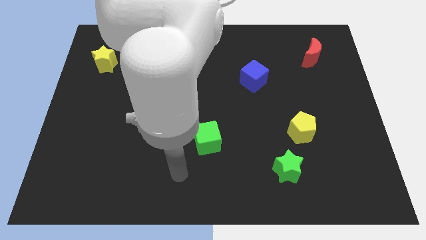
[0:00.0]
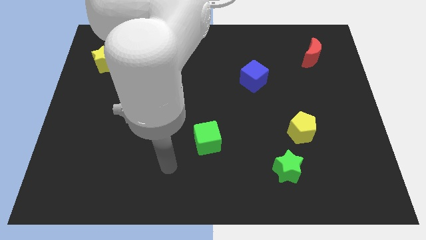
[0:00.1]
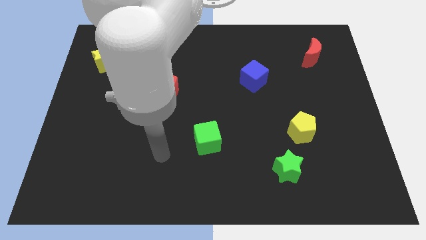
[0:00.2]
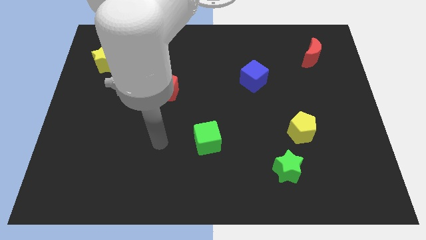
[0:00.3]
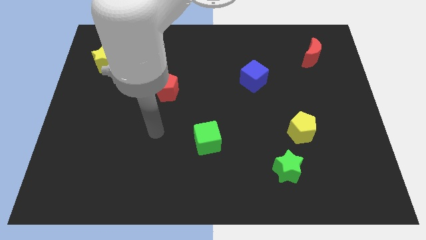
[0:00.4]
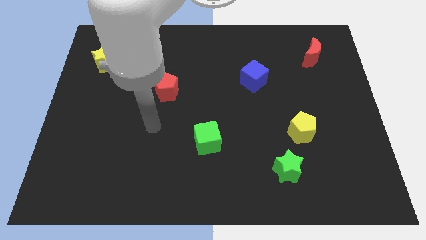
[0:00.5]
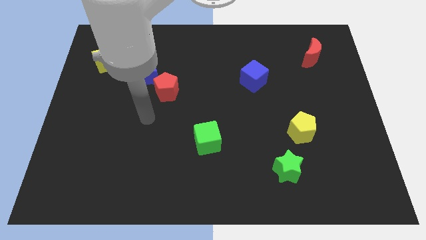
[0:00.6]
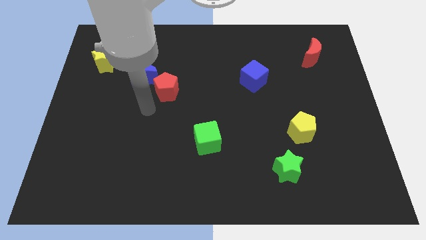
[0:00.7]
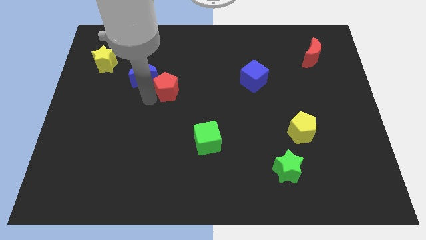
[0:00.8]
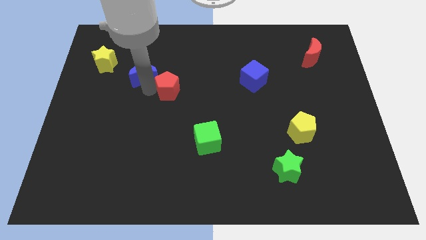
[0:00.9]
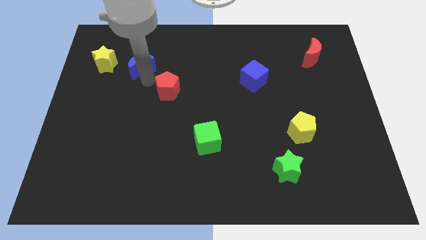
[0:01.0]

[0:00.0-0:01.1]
move the red pentagon away from the blue moon

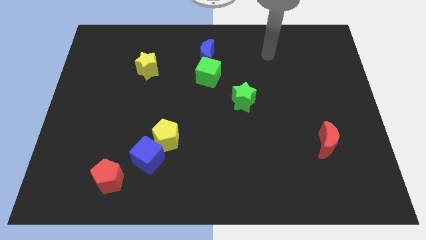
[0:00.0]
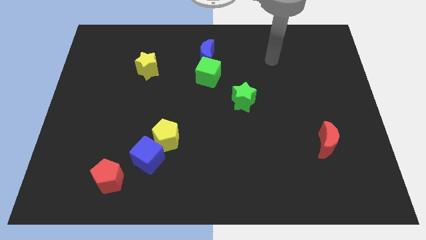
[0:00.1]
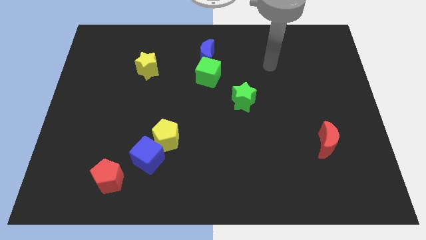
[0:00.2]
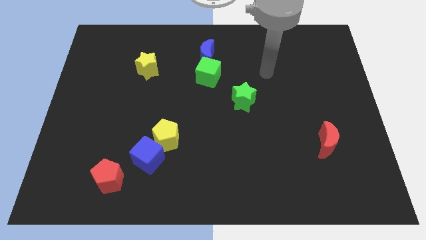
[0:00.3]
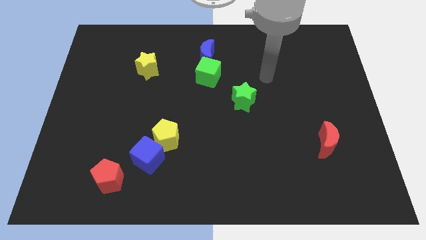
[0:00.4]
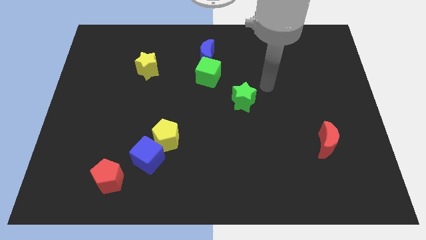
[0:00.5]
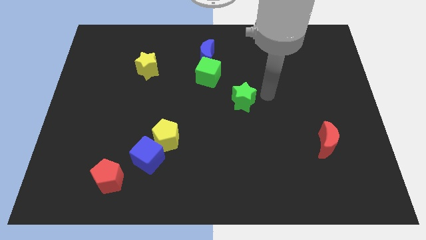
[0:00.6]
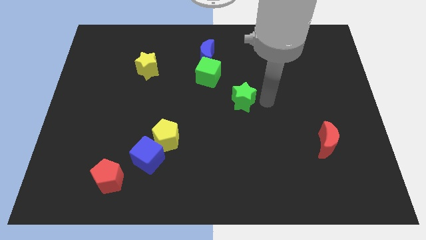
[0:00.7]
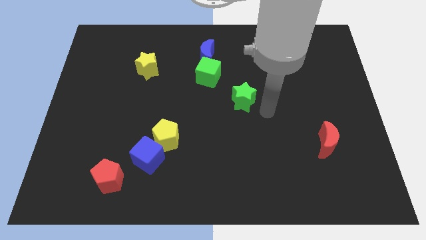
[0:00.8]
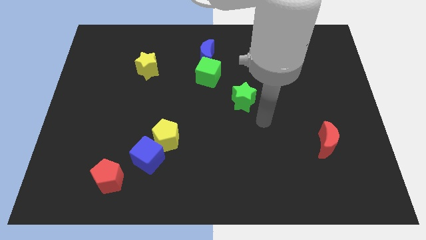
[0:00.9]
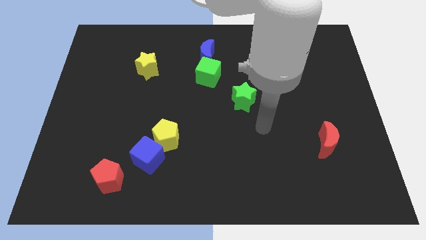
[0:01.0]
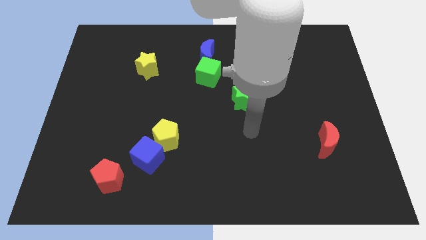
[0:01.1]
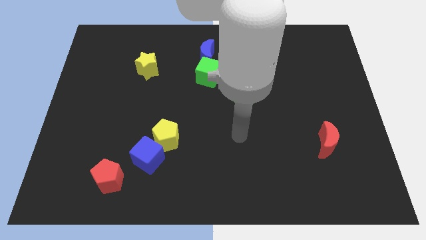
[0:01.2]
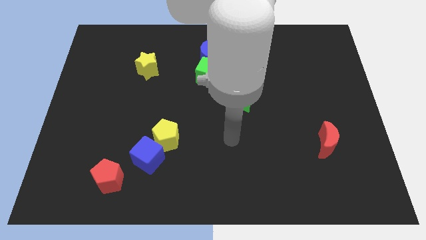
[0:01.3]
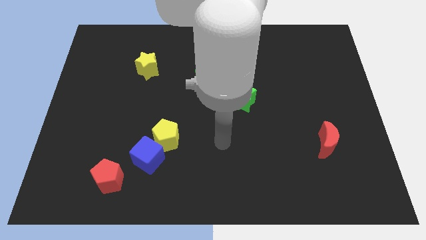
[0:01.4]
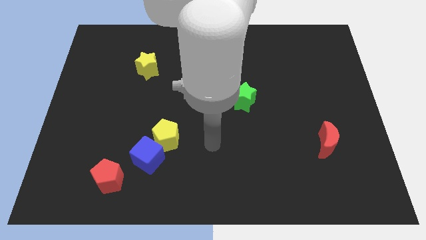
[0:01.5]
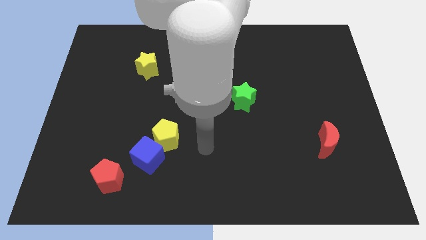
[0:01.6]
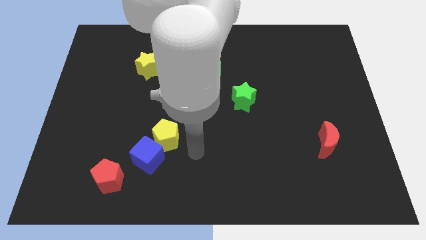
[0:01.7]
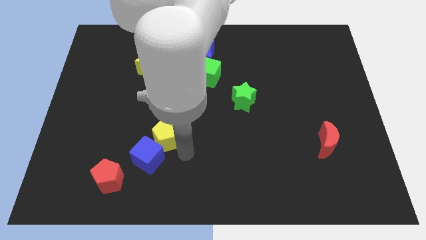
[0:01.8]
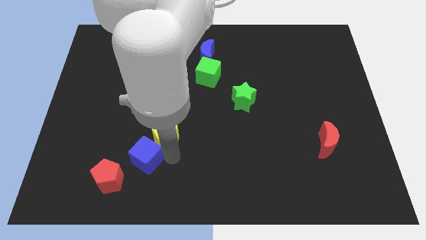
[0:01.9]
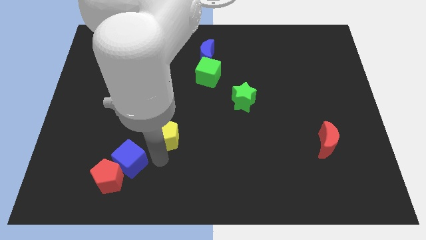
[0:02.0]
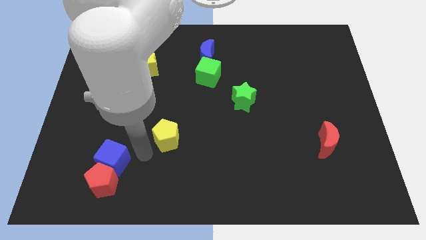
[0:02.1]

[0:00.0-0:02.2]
move the yellow pentagon away from the blue cube

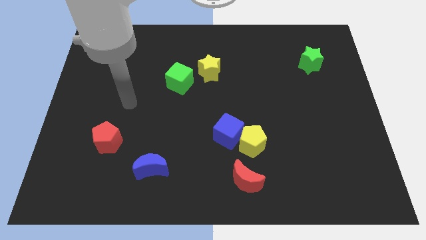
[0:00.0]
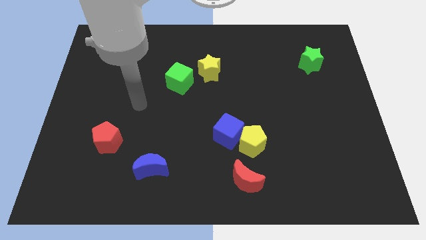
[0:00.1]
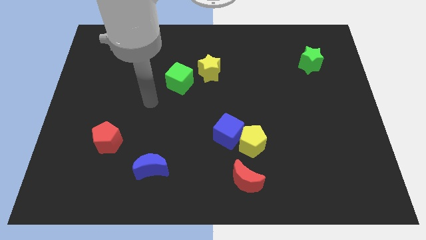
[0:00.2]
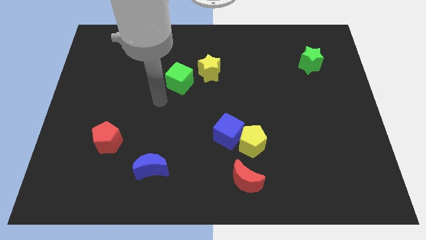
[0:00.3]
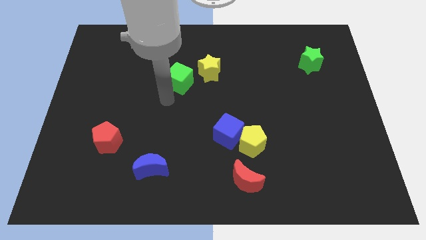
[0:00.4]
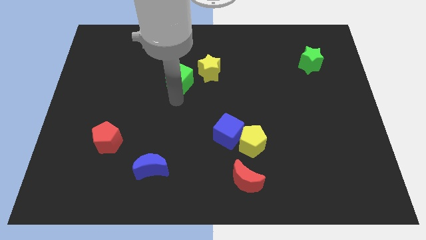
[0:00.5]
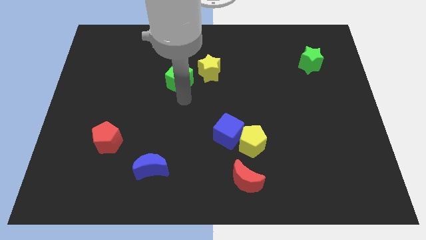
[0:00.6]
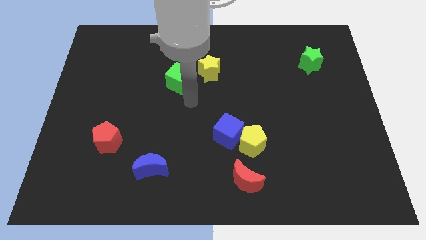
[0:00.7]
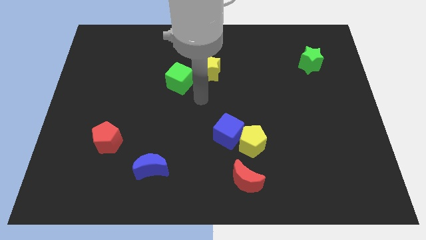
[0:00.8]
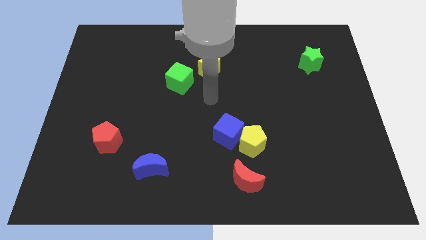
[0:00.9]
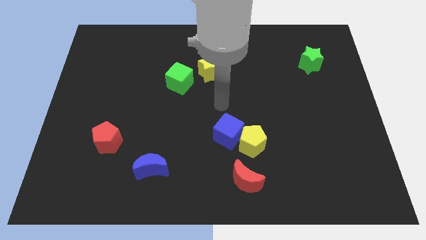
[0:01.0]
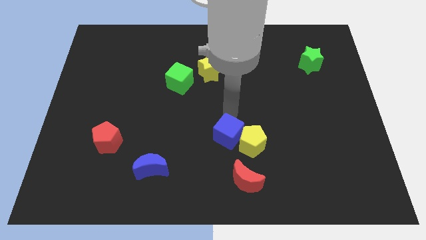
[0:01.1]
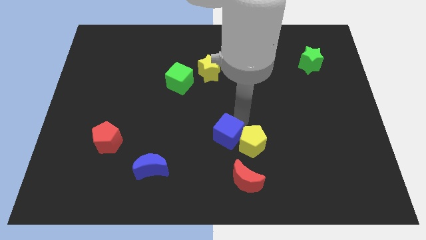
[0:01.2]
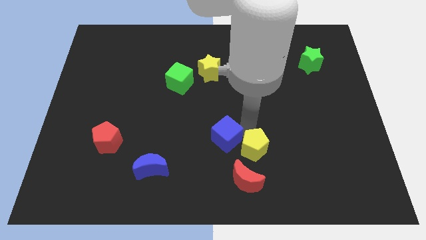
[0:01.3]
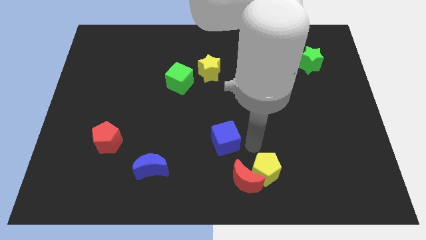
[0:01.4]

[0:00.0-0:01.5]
pull the blue cube apart from the yellow pentagon

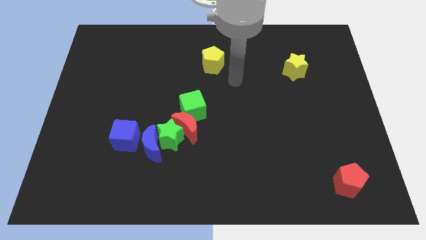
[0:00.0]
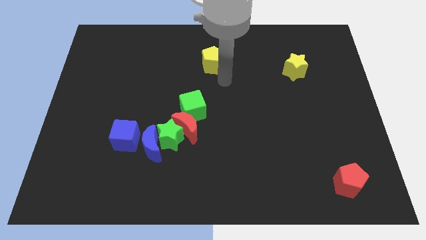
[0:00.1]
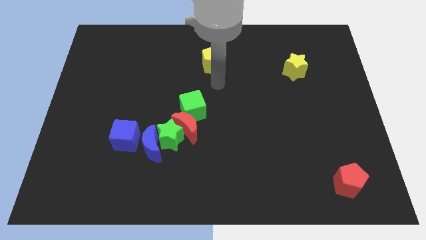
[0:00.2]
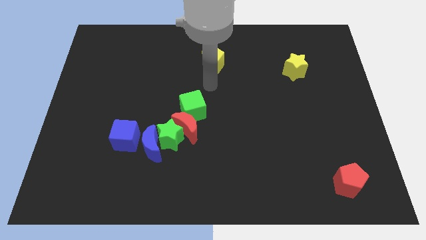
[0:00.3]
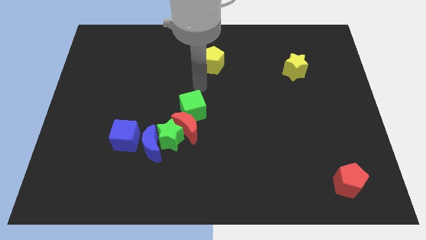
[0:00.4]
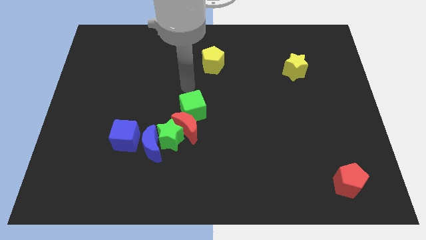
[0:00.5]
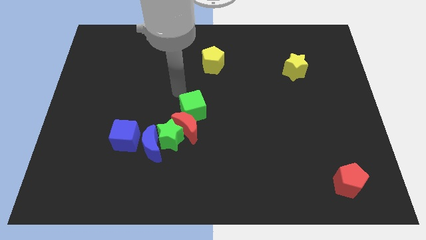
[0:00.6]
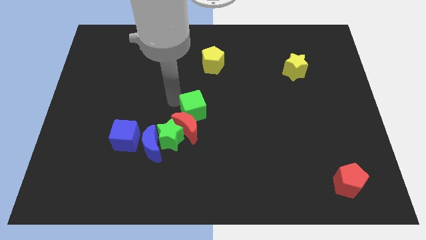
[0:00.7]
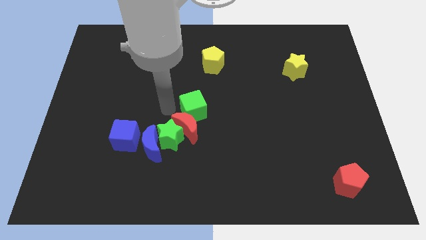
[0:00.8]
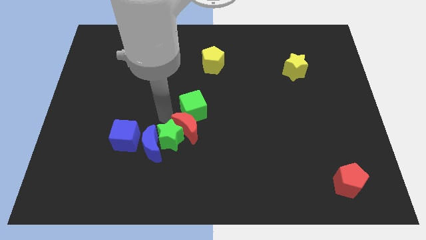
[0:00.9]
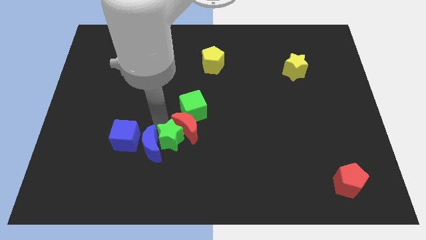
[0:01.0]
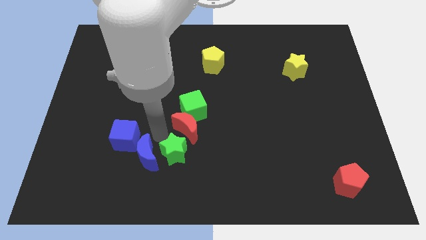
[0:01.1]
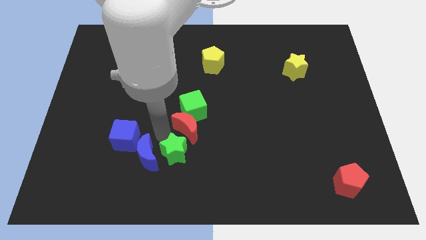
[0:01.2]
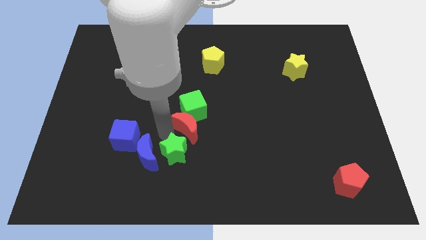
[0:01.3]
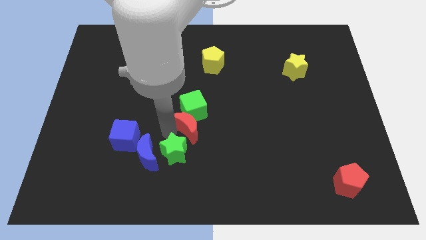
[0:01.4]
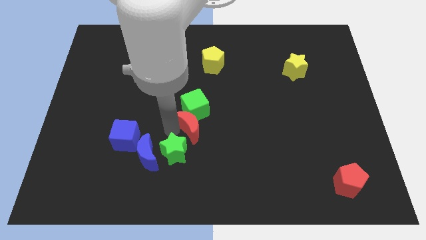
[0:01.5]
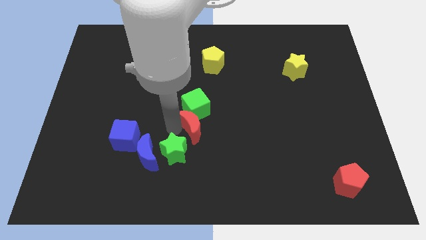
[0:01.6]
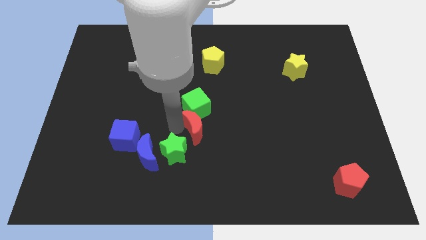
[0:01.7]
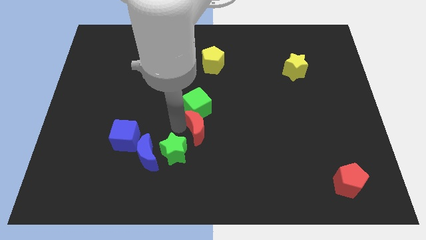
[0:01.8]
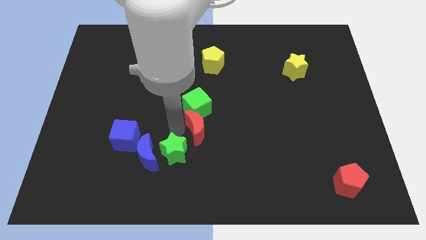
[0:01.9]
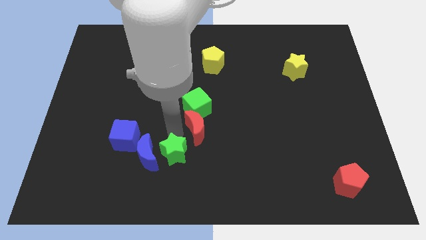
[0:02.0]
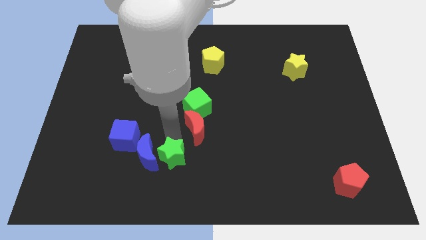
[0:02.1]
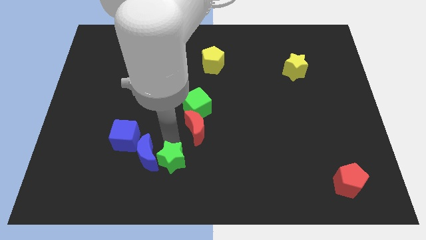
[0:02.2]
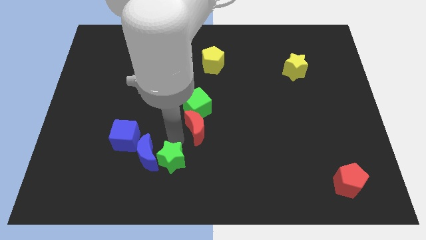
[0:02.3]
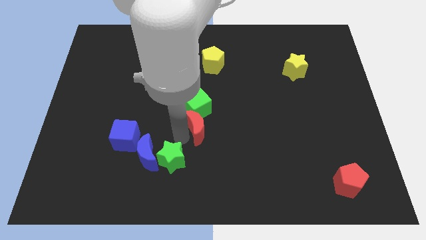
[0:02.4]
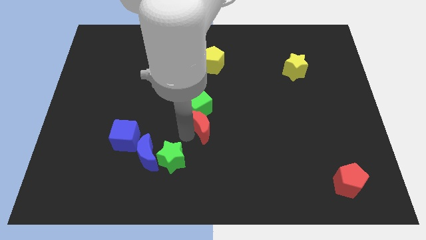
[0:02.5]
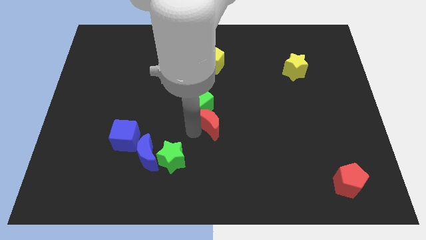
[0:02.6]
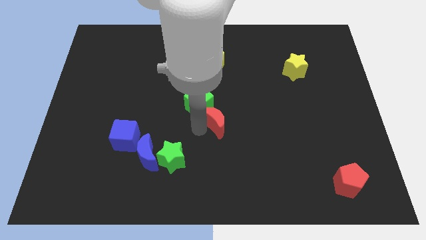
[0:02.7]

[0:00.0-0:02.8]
move the red moon away from the green star, green cube, and blue moon

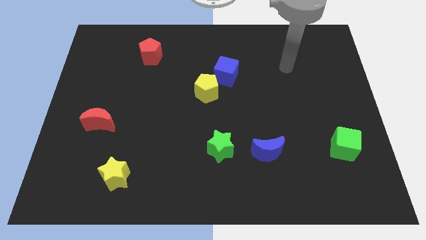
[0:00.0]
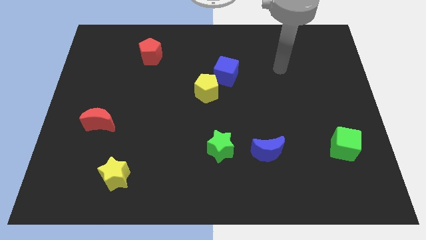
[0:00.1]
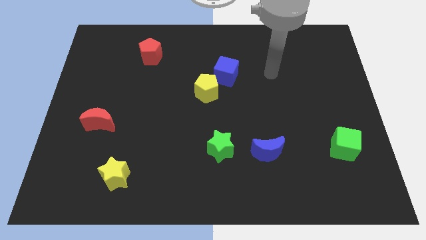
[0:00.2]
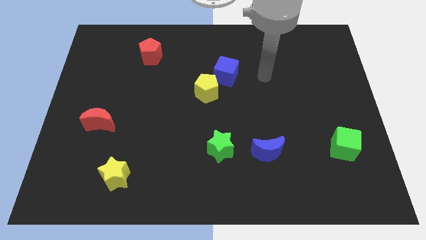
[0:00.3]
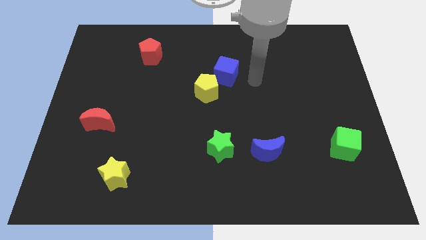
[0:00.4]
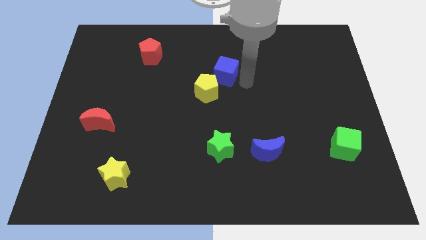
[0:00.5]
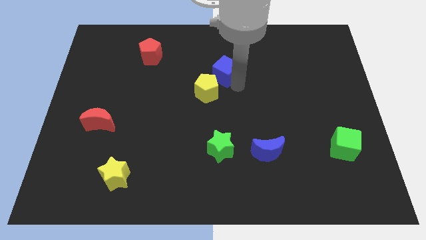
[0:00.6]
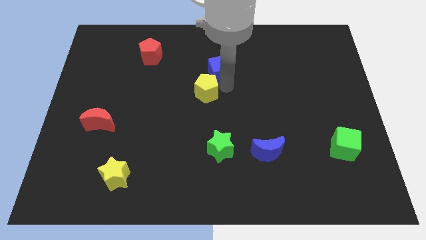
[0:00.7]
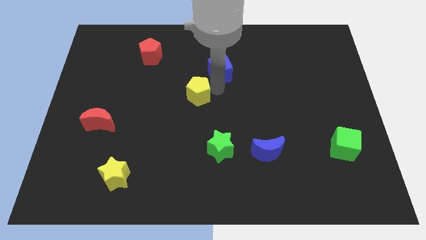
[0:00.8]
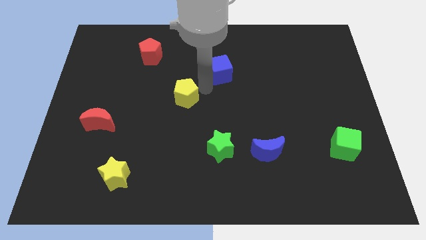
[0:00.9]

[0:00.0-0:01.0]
move the blue cube away from the yellow pentagon

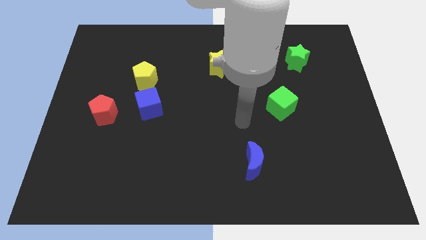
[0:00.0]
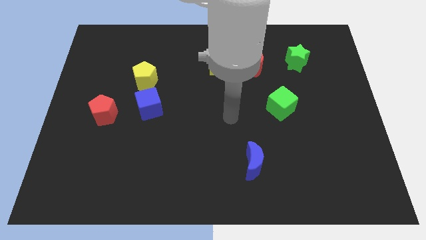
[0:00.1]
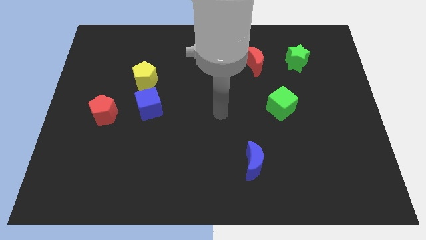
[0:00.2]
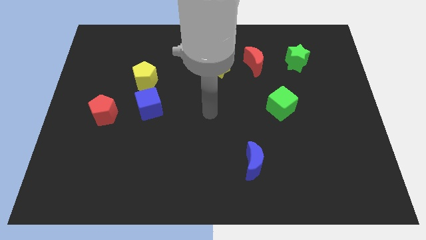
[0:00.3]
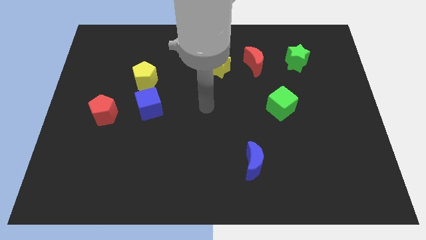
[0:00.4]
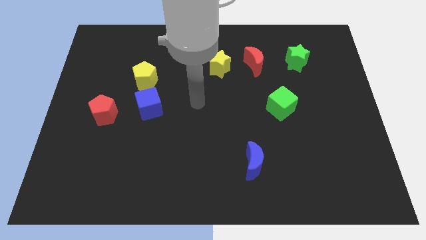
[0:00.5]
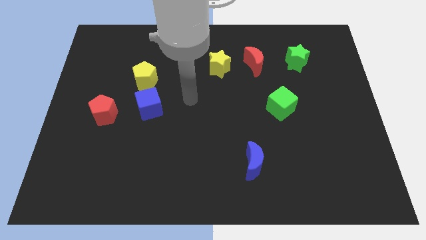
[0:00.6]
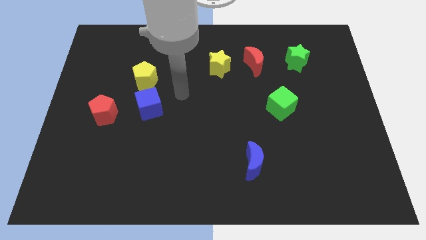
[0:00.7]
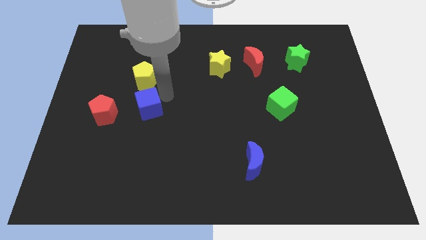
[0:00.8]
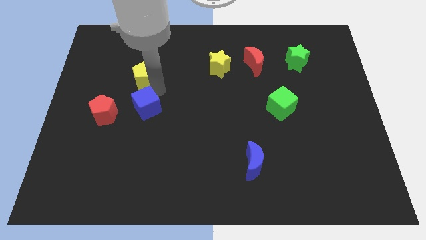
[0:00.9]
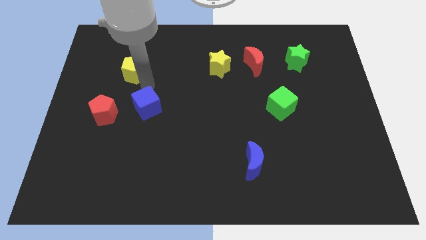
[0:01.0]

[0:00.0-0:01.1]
separate the blue cube from the yellow pentagon
